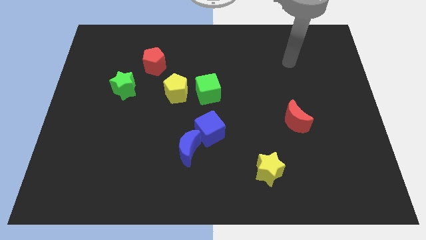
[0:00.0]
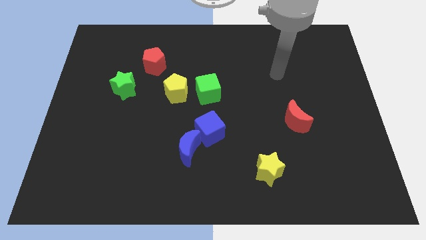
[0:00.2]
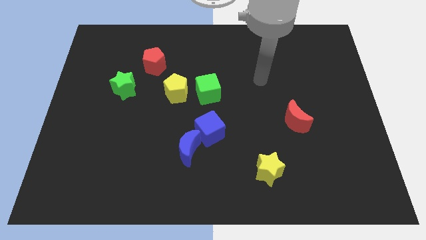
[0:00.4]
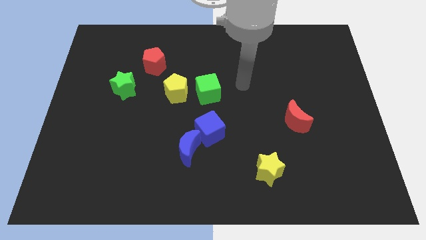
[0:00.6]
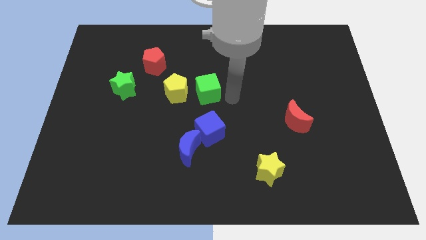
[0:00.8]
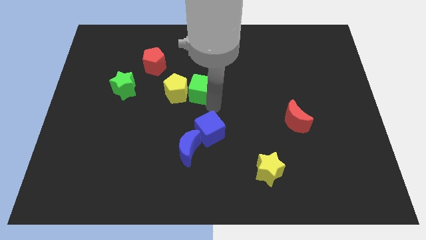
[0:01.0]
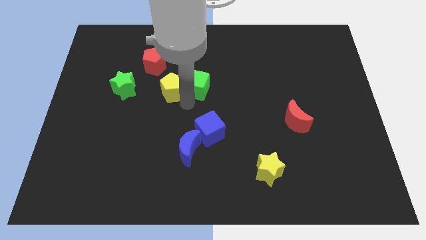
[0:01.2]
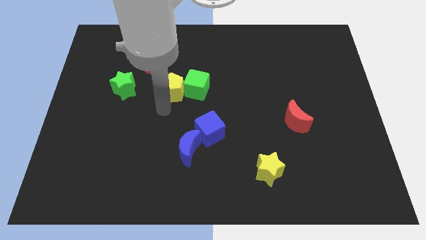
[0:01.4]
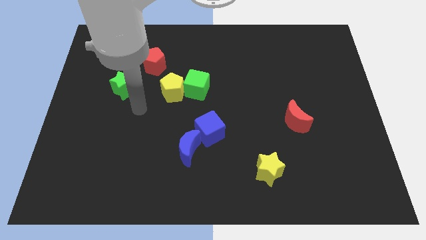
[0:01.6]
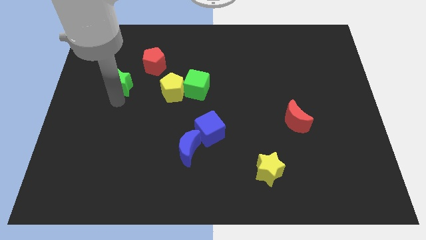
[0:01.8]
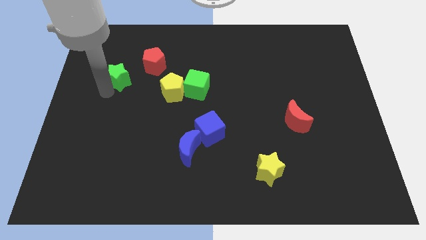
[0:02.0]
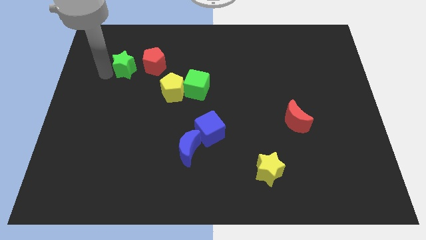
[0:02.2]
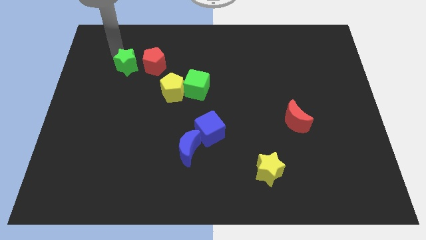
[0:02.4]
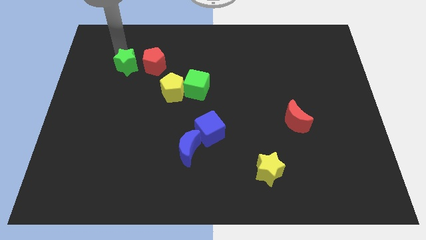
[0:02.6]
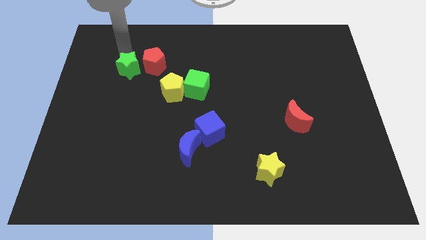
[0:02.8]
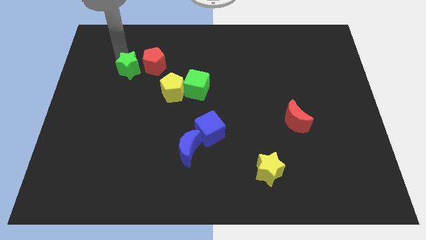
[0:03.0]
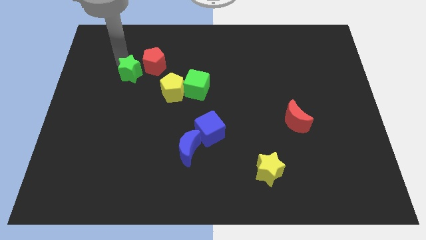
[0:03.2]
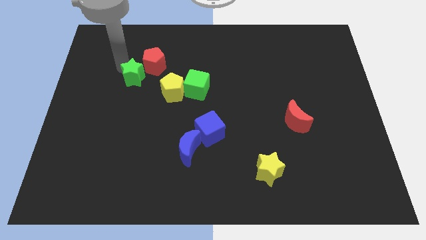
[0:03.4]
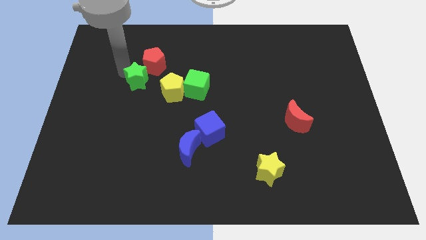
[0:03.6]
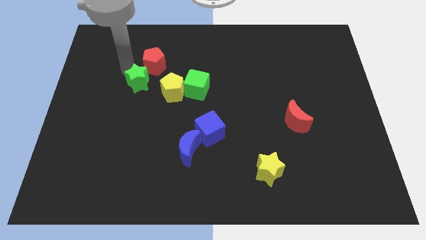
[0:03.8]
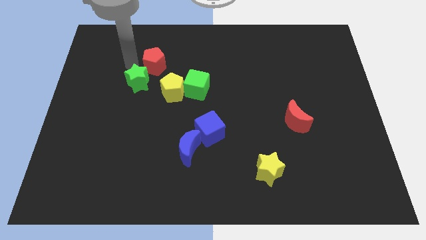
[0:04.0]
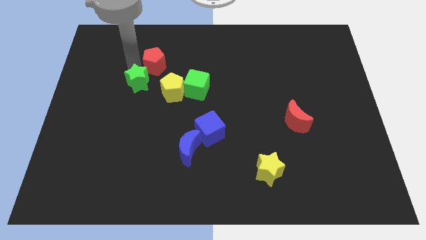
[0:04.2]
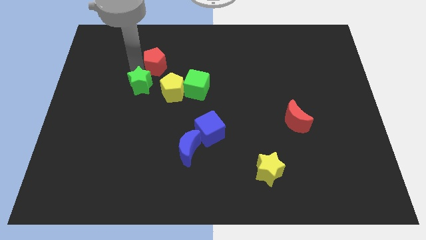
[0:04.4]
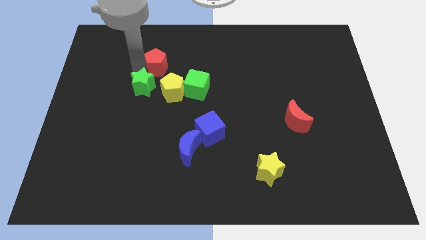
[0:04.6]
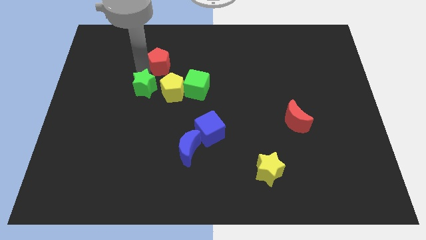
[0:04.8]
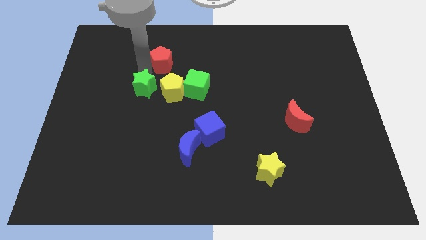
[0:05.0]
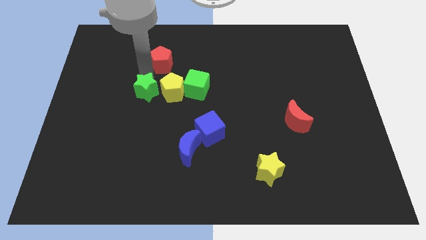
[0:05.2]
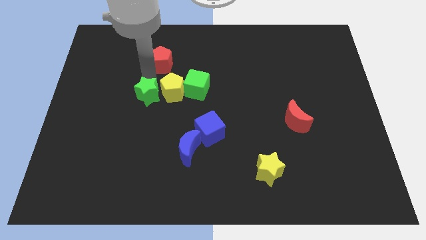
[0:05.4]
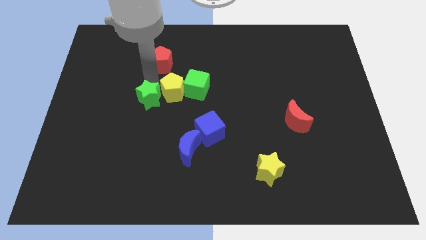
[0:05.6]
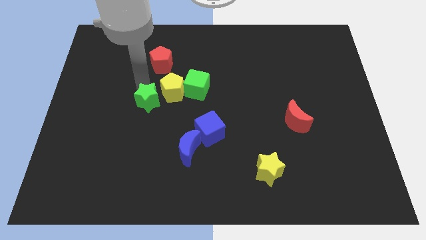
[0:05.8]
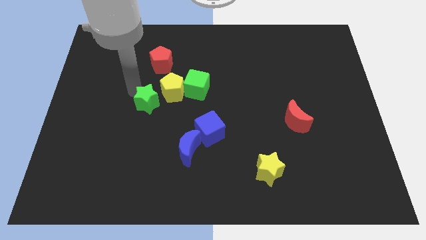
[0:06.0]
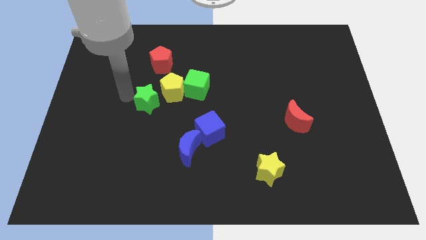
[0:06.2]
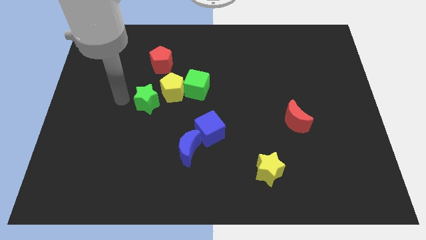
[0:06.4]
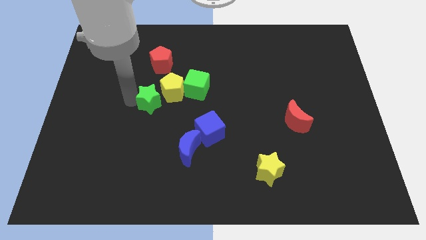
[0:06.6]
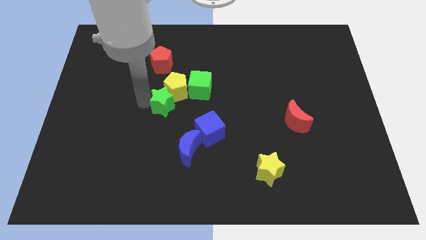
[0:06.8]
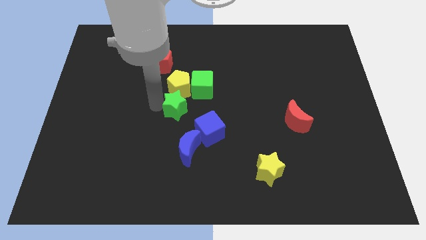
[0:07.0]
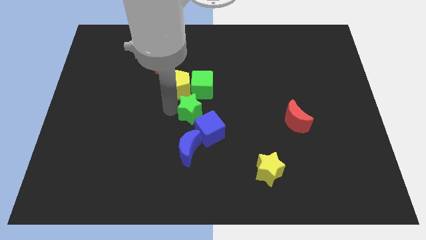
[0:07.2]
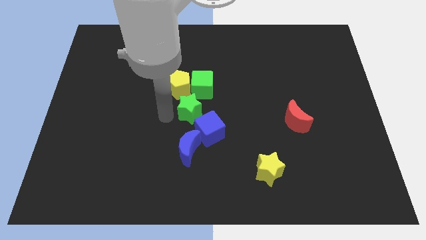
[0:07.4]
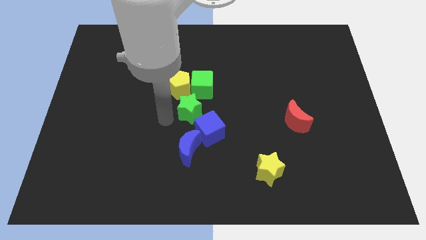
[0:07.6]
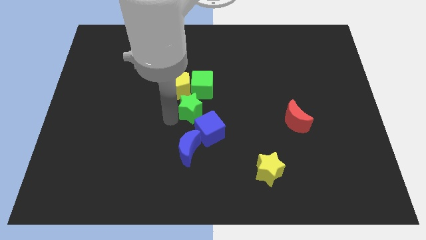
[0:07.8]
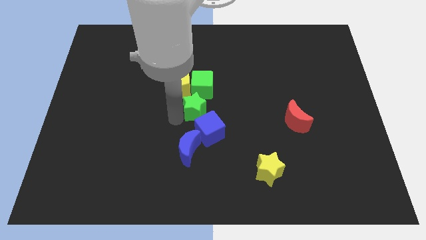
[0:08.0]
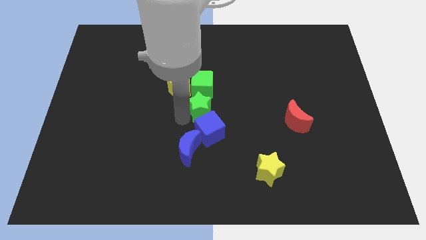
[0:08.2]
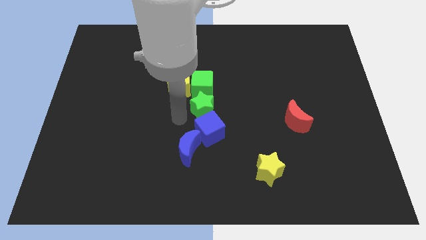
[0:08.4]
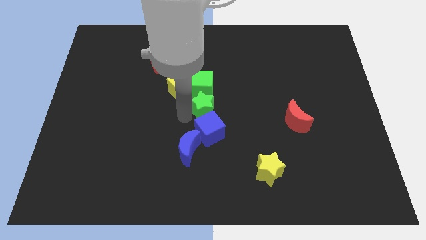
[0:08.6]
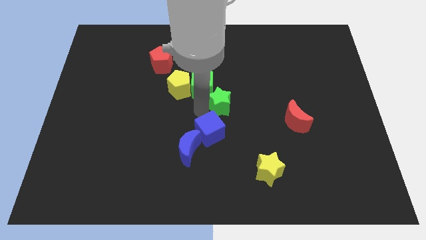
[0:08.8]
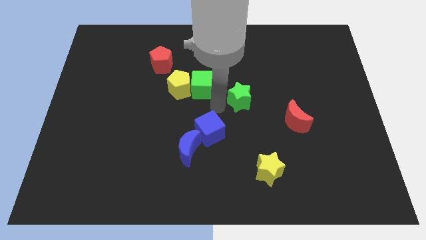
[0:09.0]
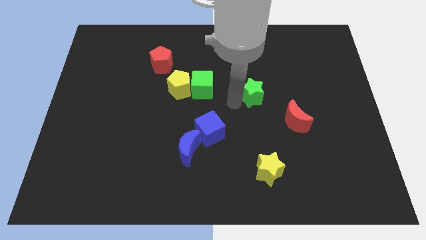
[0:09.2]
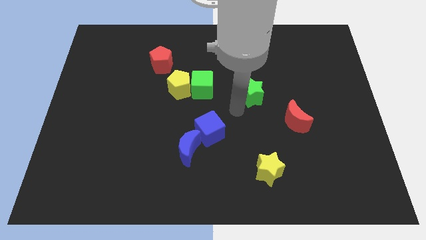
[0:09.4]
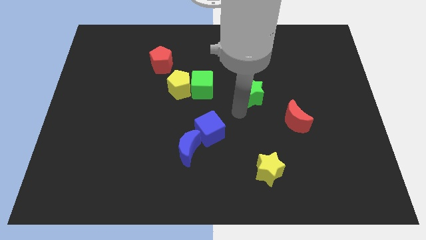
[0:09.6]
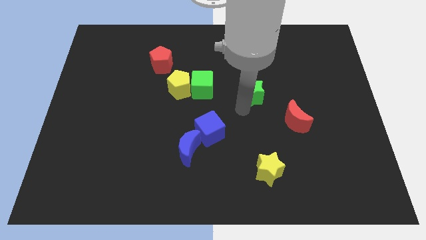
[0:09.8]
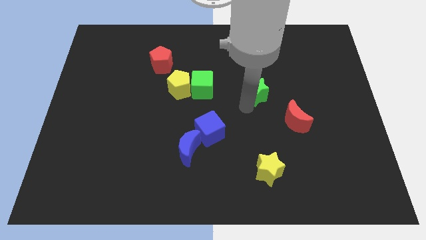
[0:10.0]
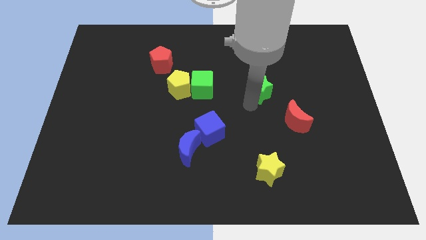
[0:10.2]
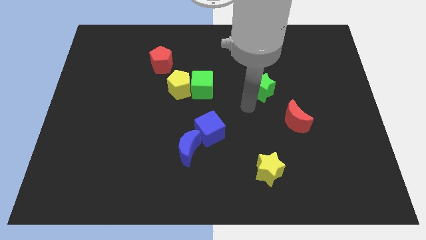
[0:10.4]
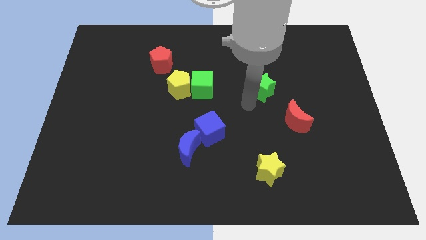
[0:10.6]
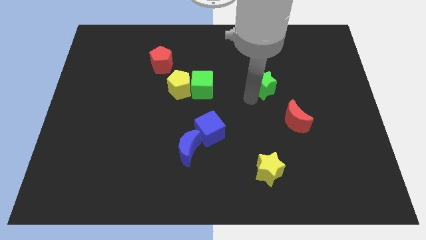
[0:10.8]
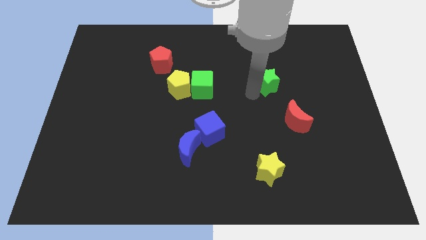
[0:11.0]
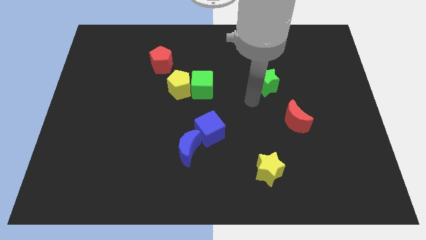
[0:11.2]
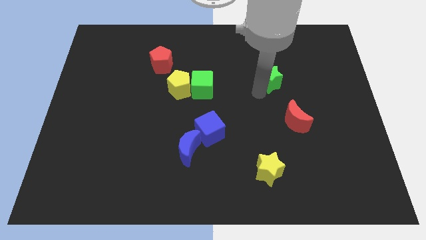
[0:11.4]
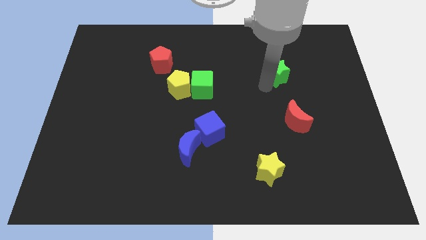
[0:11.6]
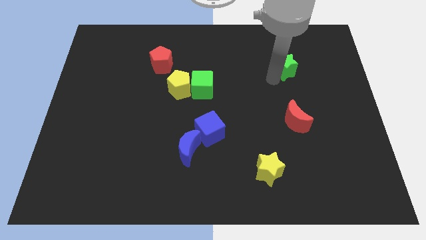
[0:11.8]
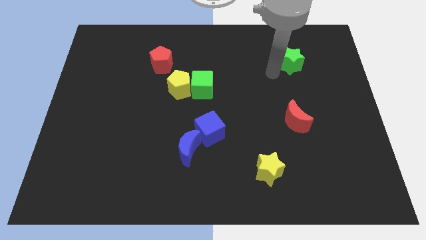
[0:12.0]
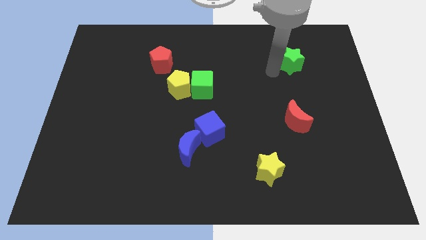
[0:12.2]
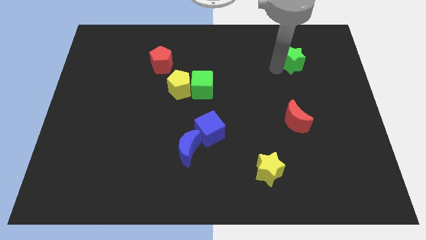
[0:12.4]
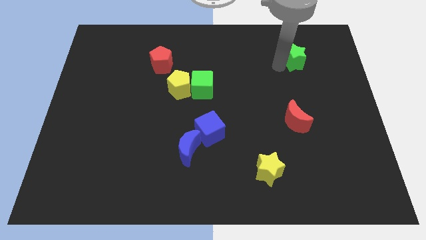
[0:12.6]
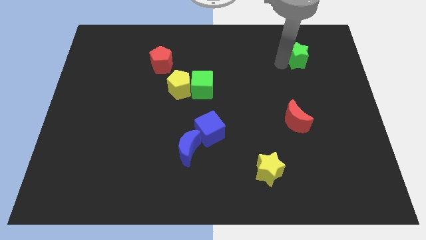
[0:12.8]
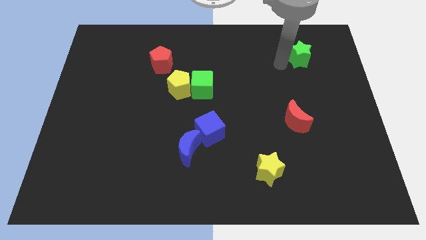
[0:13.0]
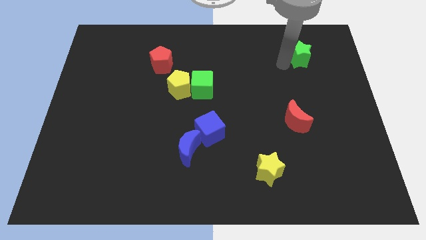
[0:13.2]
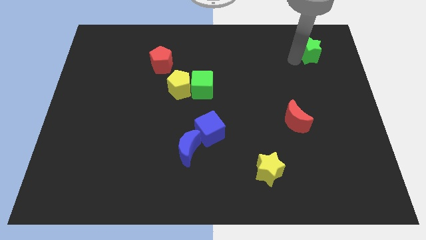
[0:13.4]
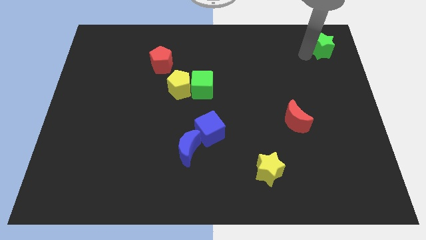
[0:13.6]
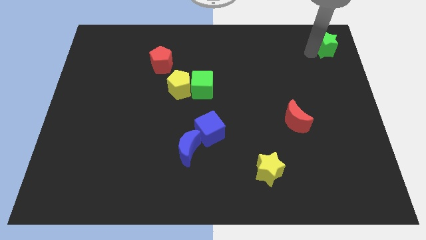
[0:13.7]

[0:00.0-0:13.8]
slide the green star to the upper right corner

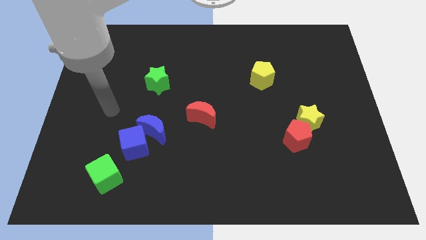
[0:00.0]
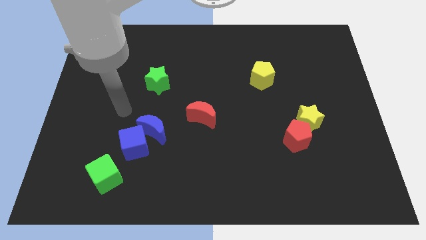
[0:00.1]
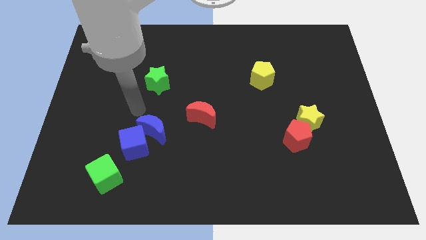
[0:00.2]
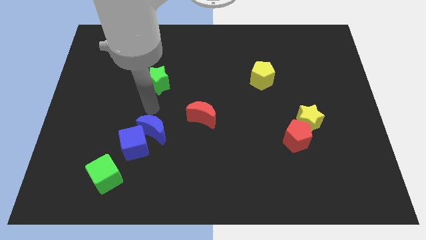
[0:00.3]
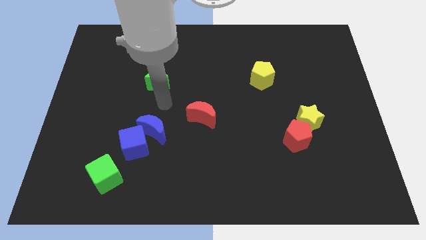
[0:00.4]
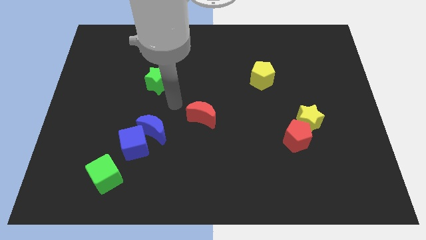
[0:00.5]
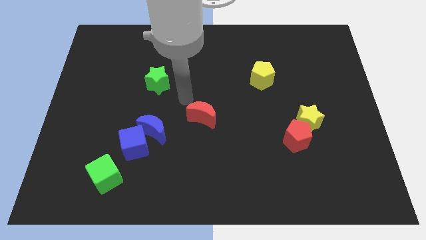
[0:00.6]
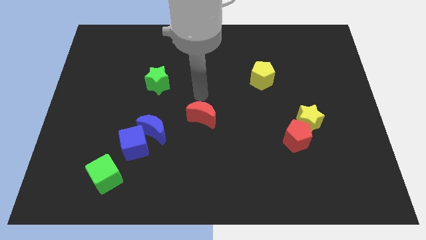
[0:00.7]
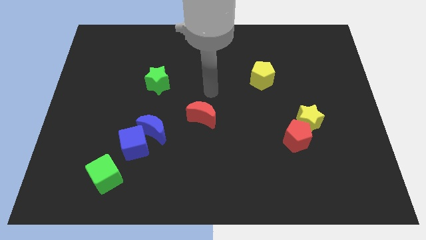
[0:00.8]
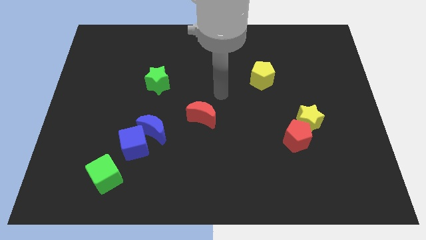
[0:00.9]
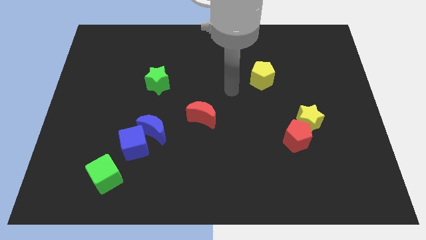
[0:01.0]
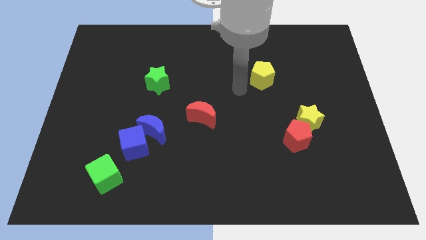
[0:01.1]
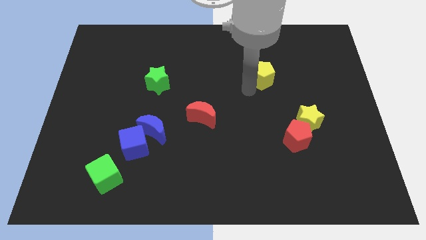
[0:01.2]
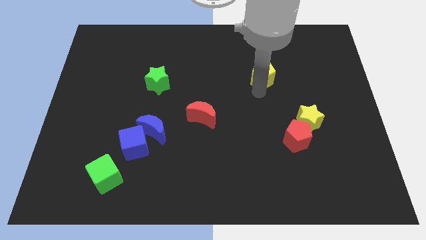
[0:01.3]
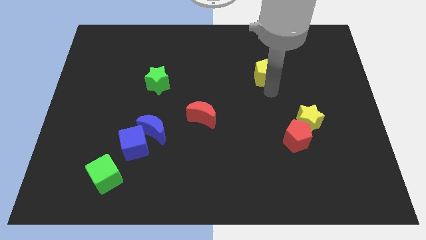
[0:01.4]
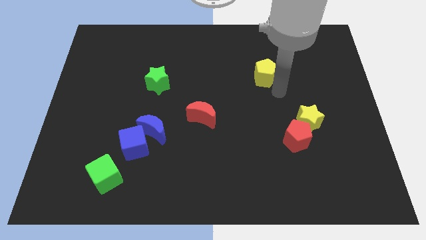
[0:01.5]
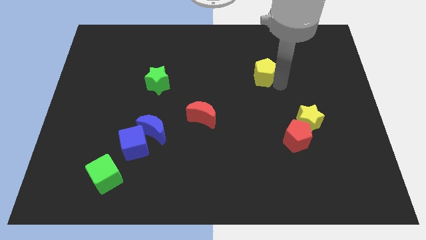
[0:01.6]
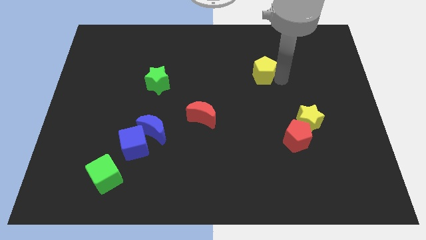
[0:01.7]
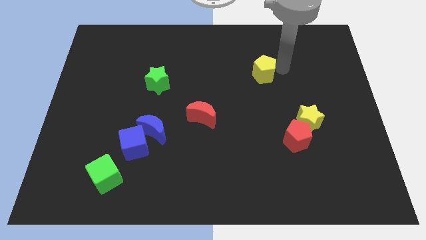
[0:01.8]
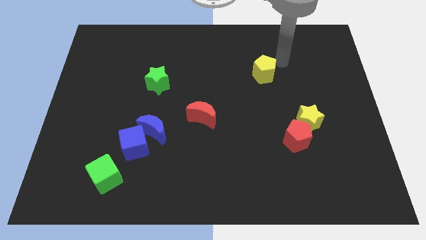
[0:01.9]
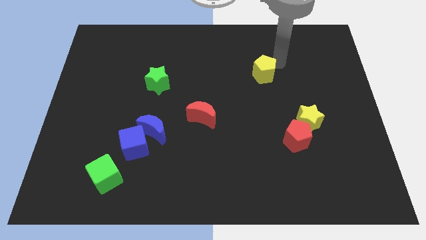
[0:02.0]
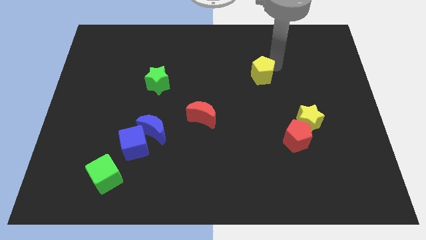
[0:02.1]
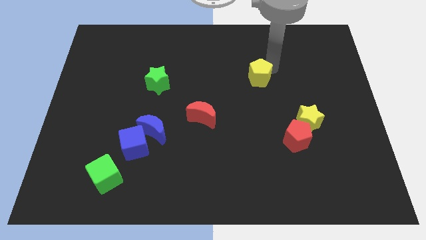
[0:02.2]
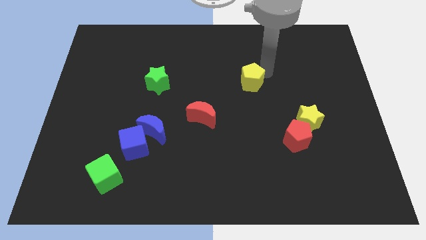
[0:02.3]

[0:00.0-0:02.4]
put the yellow pentagon to the center of the board
